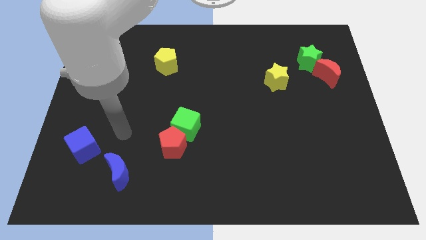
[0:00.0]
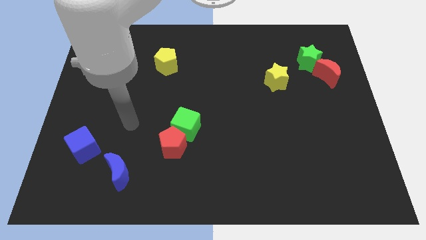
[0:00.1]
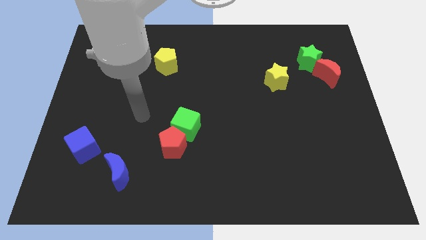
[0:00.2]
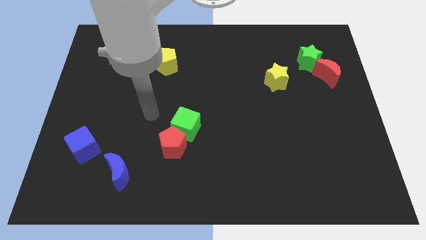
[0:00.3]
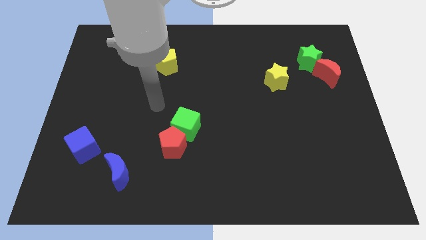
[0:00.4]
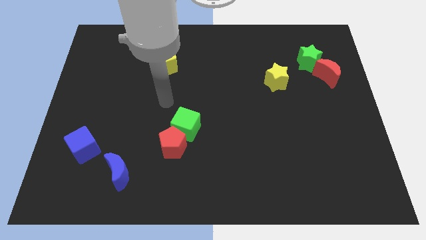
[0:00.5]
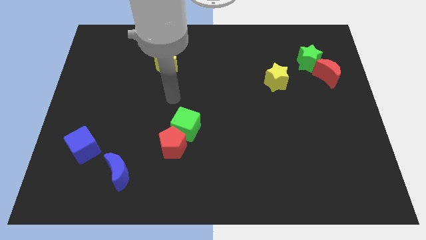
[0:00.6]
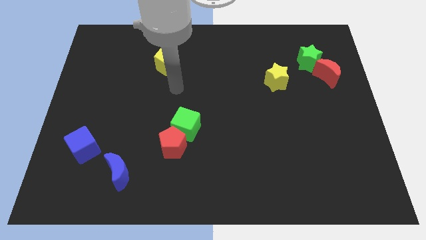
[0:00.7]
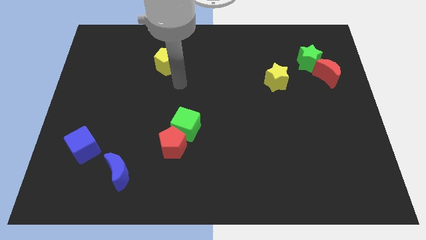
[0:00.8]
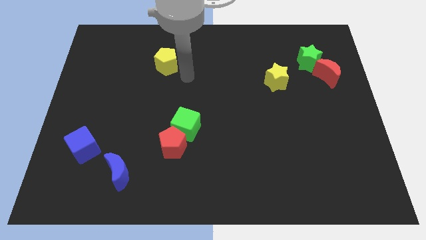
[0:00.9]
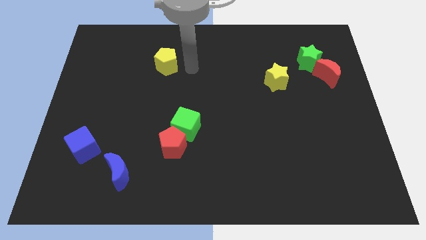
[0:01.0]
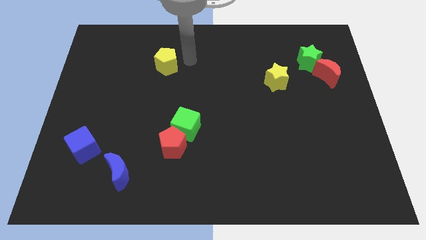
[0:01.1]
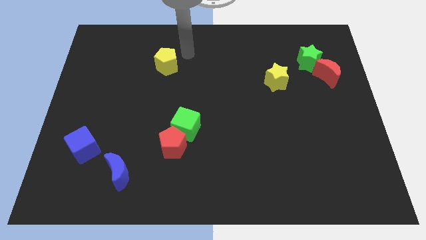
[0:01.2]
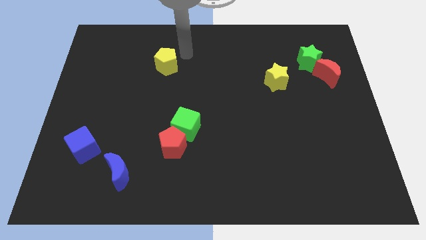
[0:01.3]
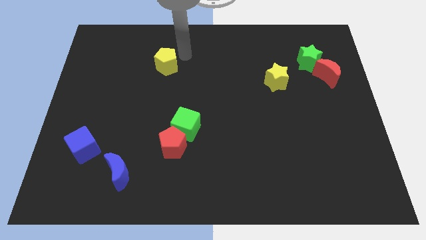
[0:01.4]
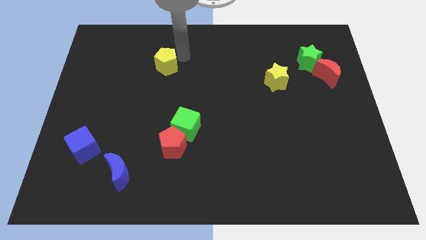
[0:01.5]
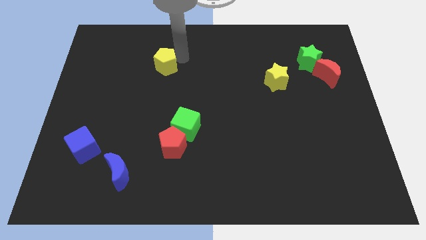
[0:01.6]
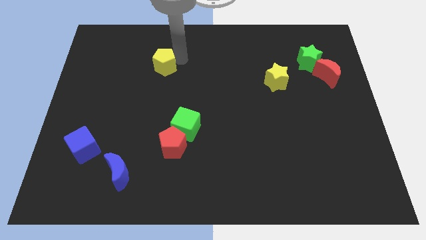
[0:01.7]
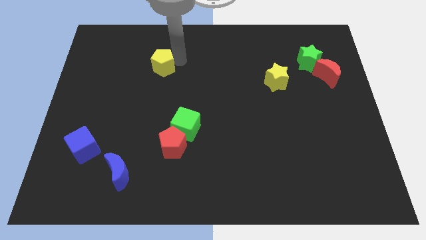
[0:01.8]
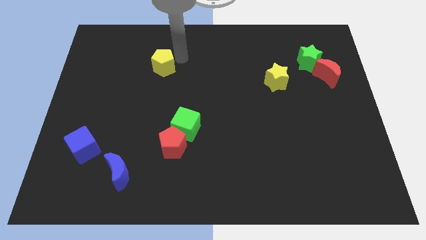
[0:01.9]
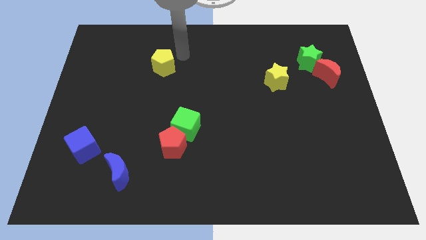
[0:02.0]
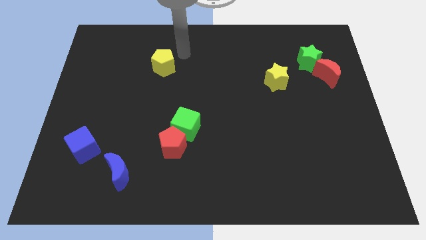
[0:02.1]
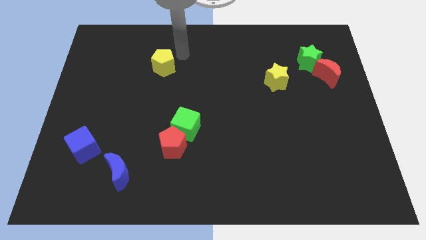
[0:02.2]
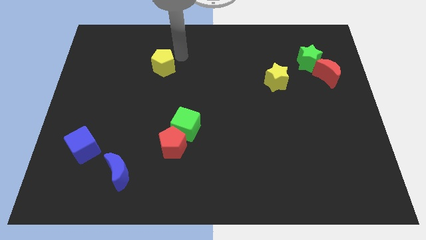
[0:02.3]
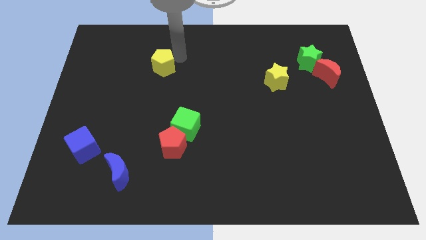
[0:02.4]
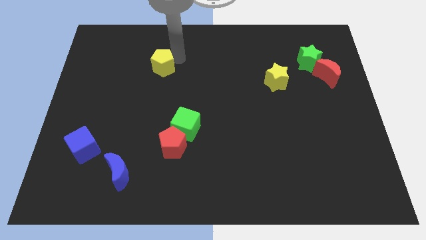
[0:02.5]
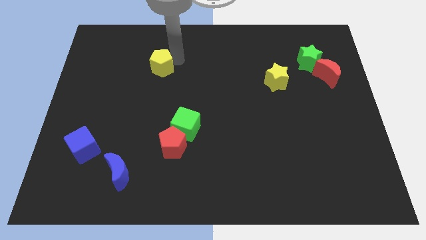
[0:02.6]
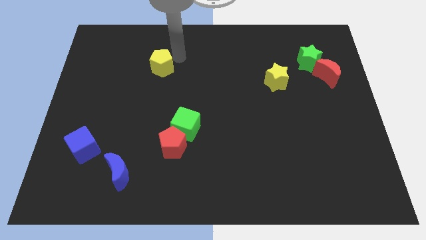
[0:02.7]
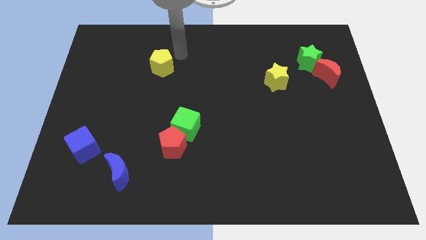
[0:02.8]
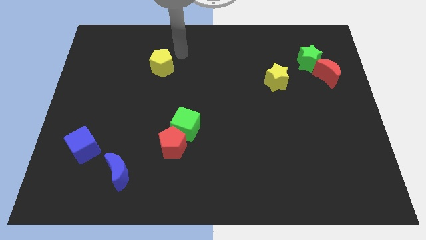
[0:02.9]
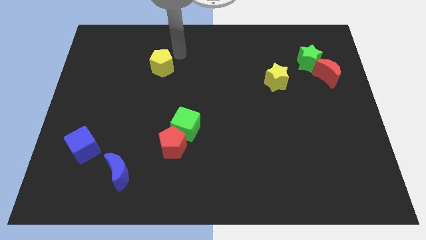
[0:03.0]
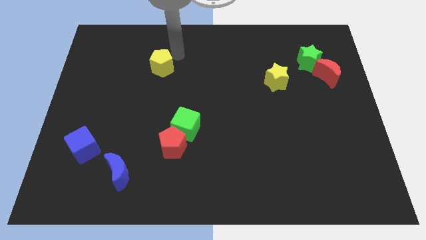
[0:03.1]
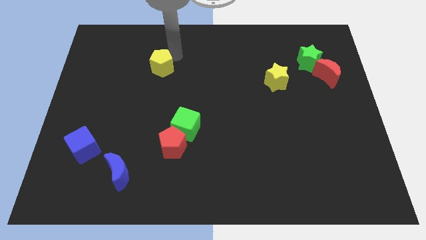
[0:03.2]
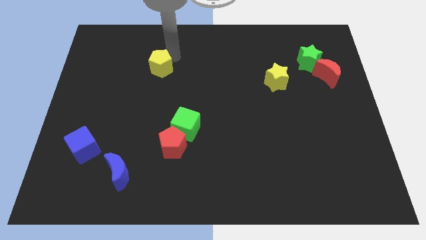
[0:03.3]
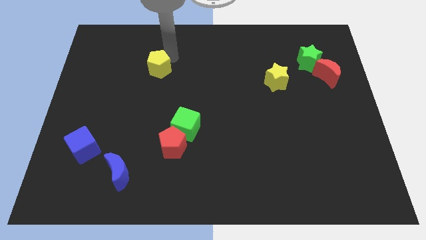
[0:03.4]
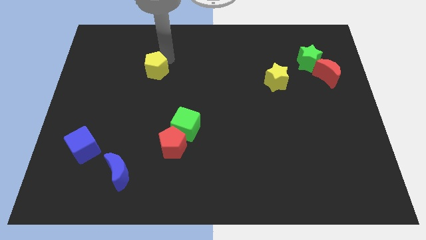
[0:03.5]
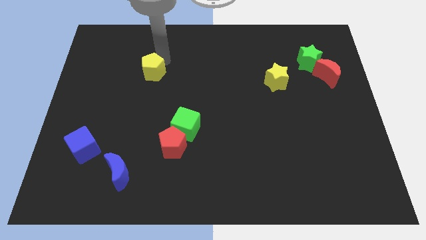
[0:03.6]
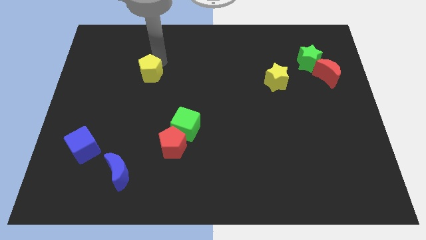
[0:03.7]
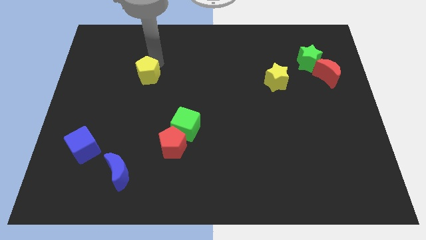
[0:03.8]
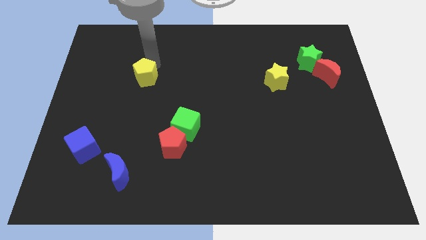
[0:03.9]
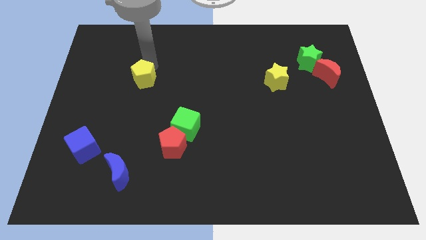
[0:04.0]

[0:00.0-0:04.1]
slide the yellow pentagon down and then to the left somewhat

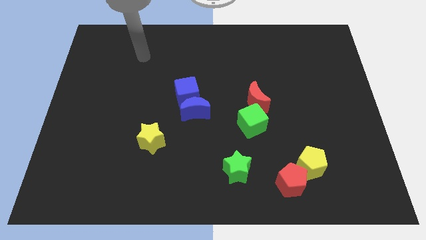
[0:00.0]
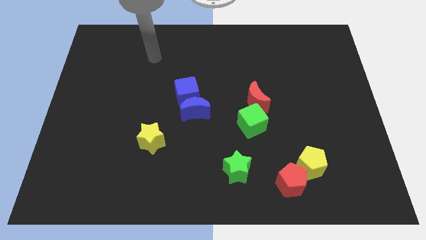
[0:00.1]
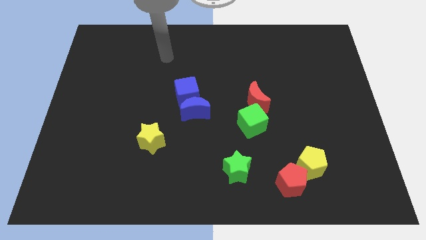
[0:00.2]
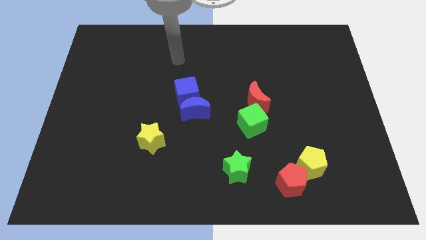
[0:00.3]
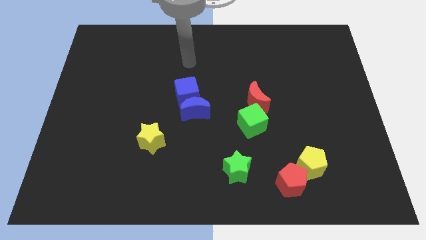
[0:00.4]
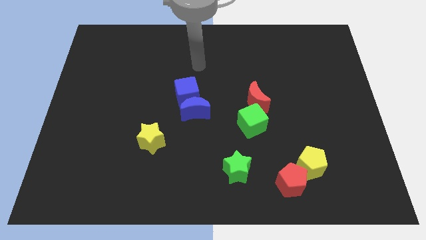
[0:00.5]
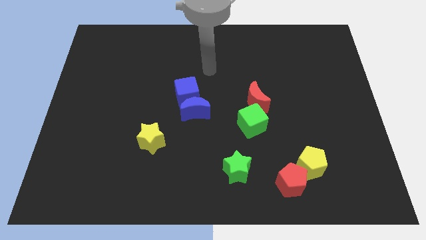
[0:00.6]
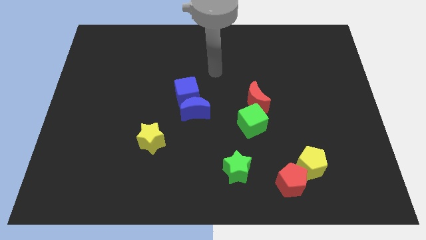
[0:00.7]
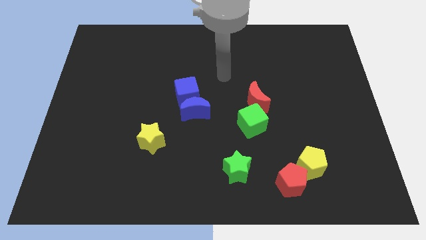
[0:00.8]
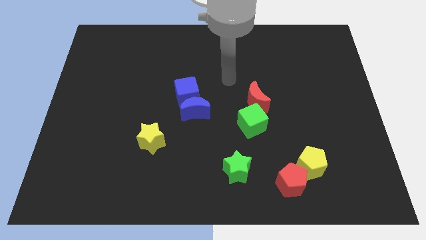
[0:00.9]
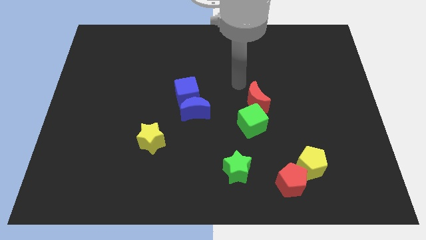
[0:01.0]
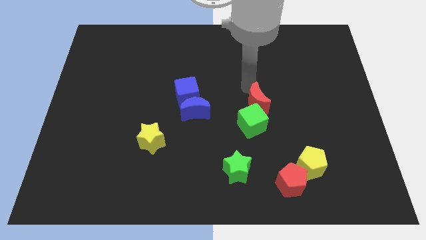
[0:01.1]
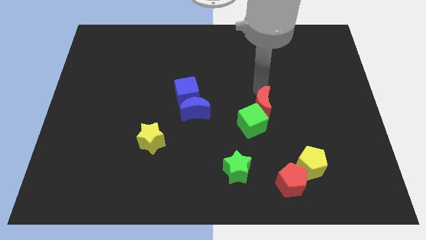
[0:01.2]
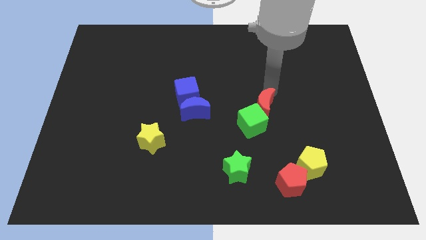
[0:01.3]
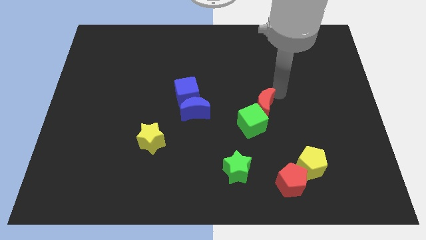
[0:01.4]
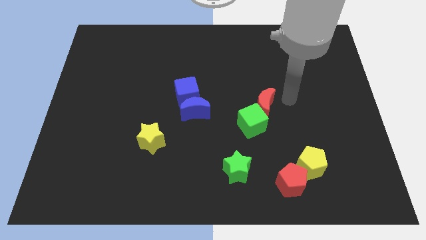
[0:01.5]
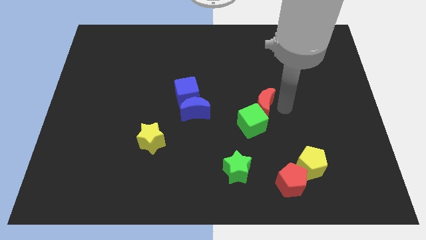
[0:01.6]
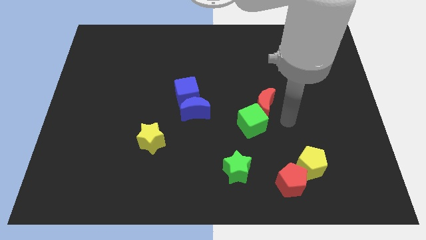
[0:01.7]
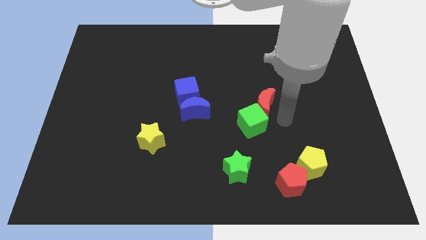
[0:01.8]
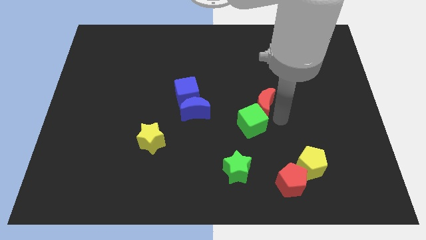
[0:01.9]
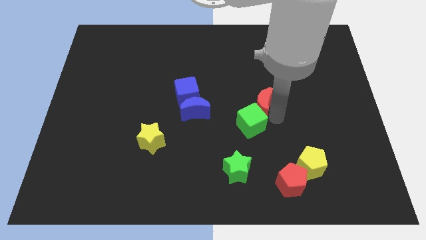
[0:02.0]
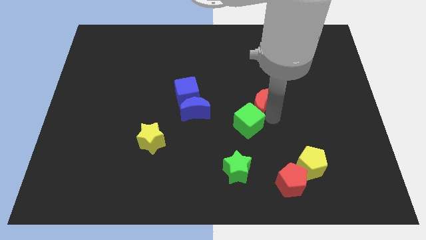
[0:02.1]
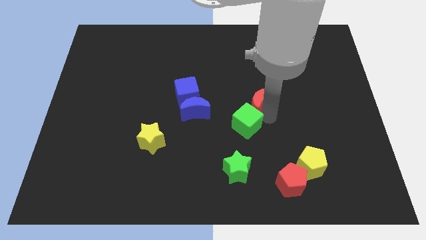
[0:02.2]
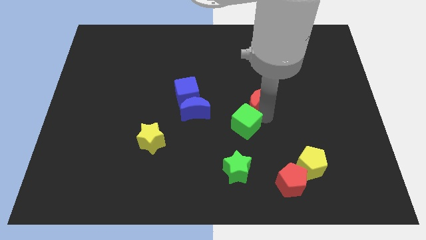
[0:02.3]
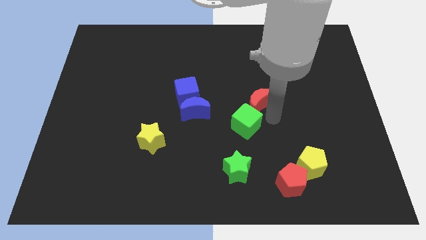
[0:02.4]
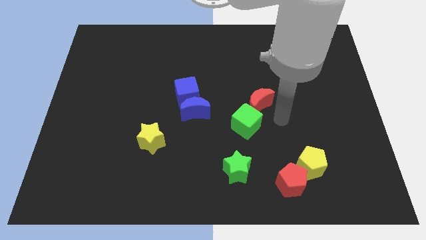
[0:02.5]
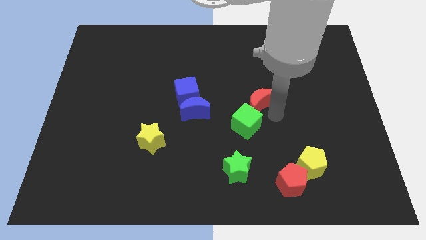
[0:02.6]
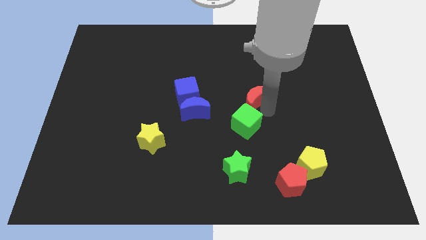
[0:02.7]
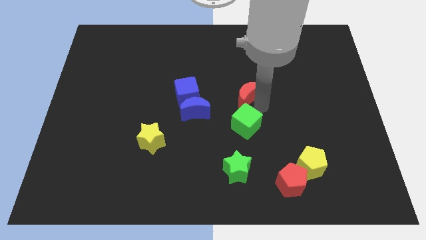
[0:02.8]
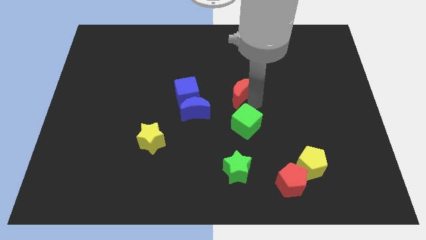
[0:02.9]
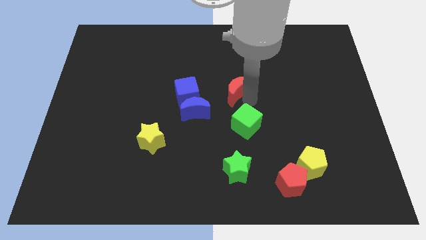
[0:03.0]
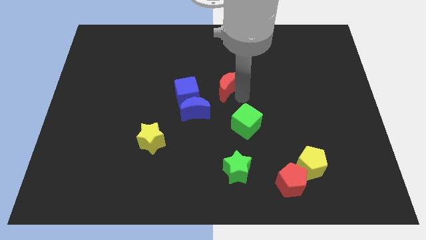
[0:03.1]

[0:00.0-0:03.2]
move the red moon a little bit up and then left

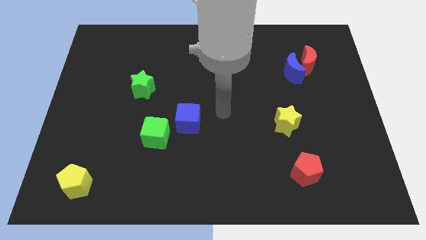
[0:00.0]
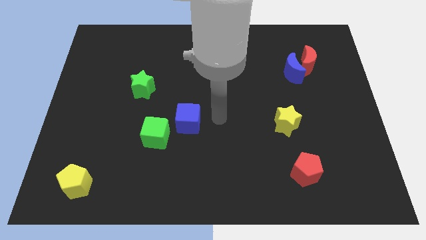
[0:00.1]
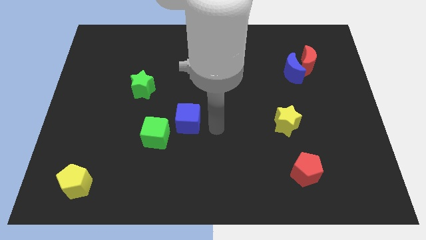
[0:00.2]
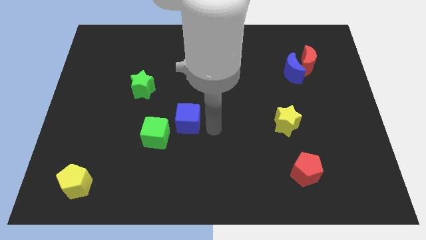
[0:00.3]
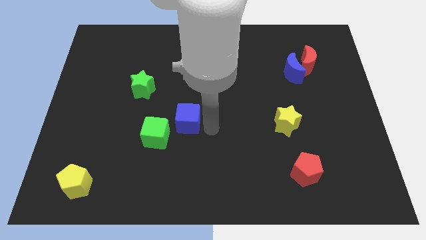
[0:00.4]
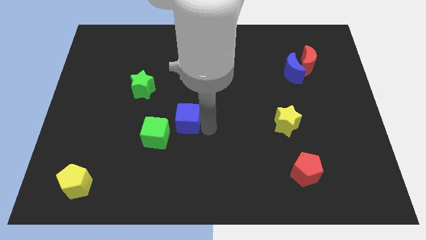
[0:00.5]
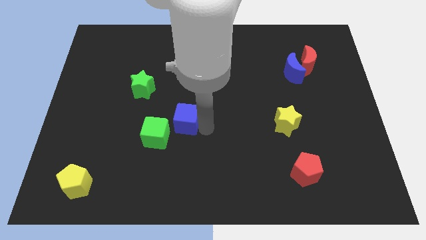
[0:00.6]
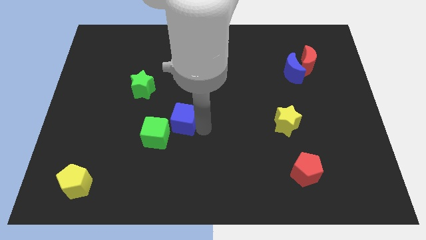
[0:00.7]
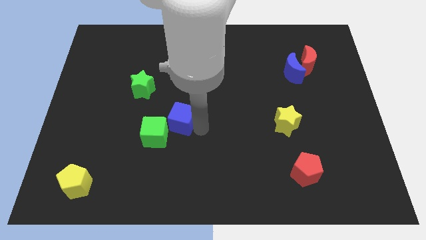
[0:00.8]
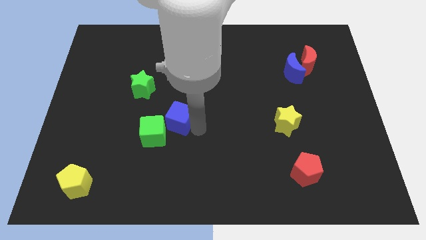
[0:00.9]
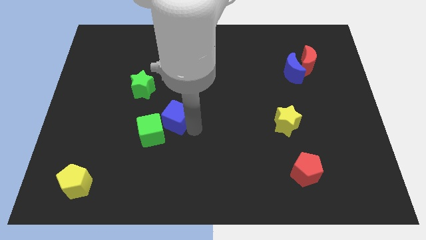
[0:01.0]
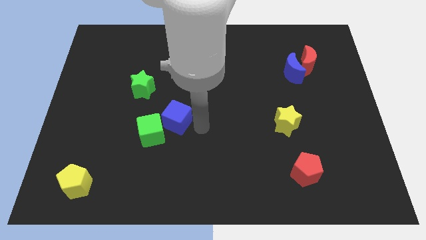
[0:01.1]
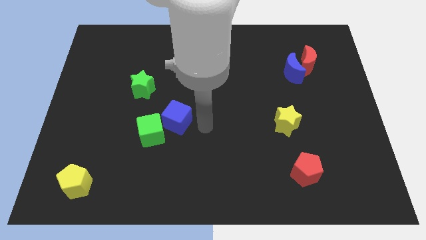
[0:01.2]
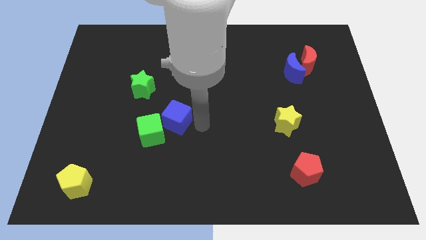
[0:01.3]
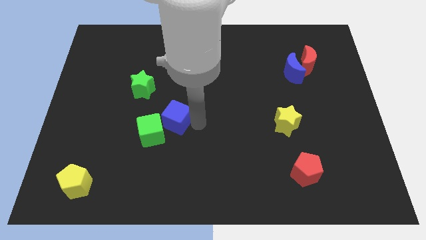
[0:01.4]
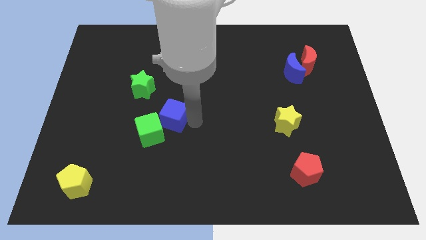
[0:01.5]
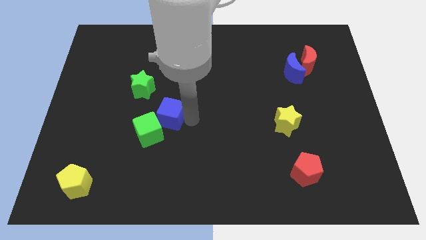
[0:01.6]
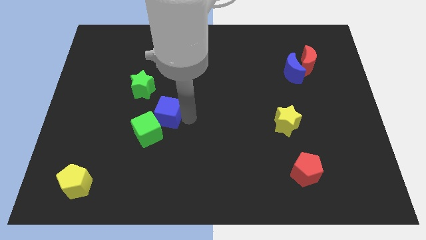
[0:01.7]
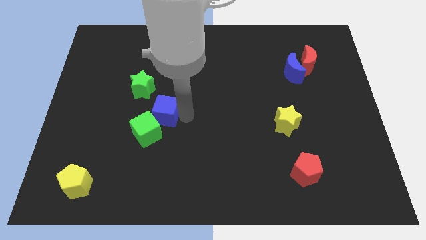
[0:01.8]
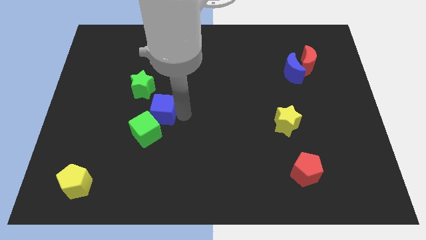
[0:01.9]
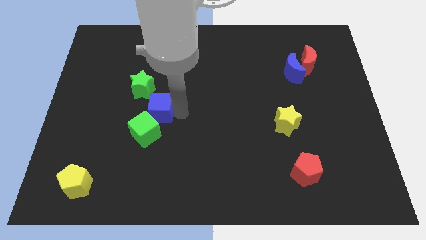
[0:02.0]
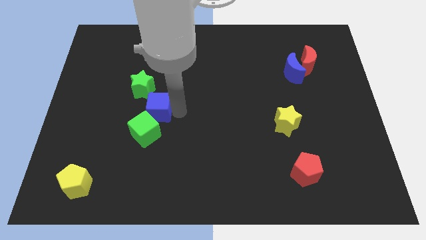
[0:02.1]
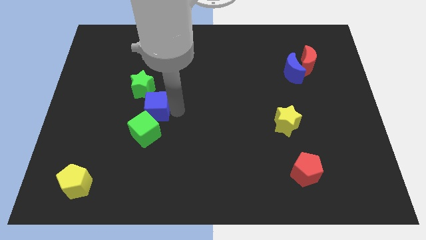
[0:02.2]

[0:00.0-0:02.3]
push the blue cube left somewhat
